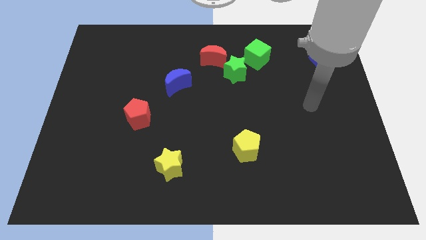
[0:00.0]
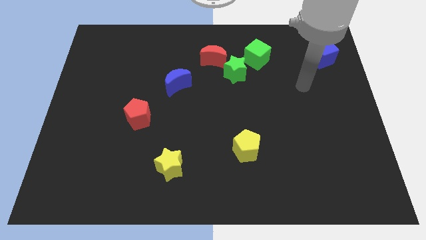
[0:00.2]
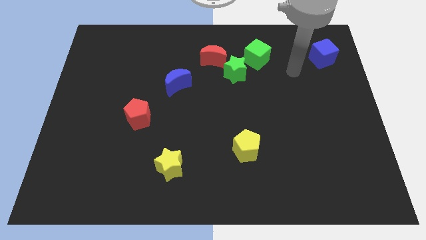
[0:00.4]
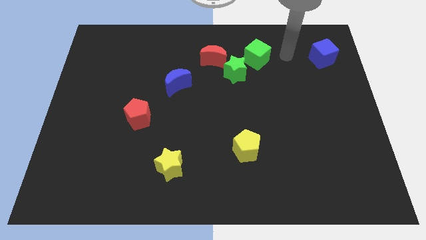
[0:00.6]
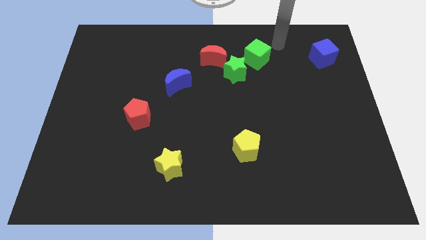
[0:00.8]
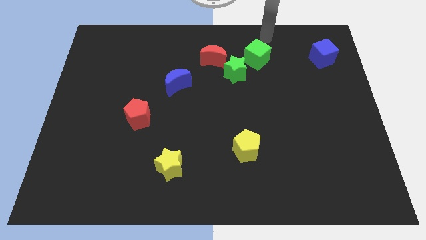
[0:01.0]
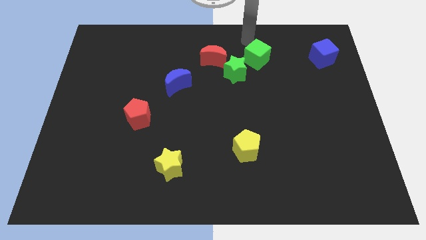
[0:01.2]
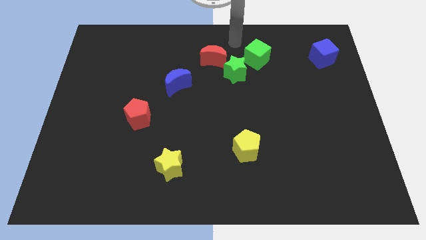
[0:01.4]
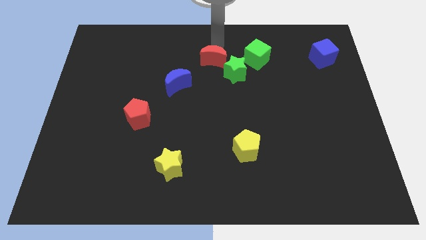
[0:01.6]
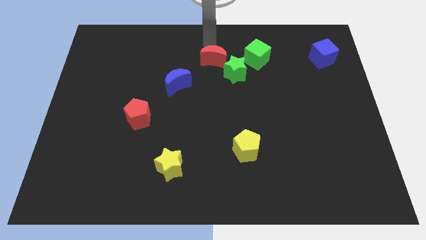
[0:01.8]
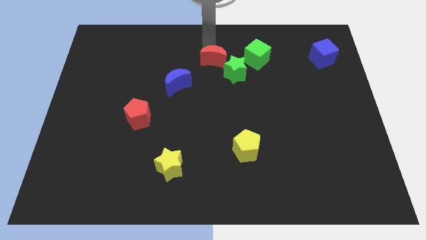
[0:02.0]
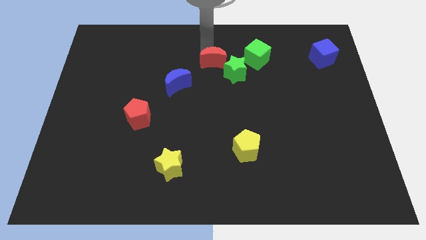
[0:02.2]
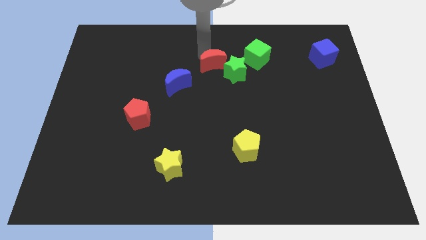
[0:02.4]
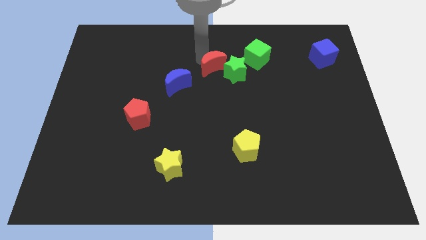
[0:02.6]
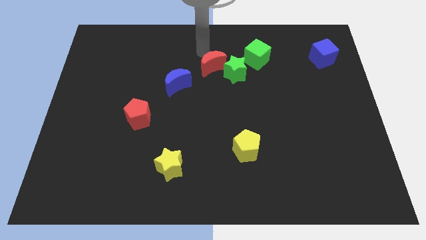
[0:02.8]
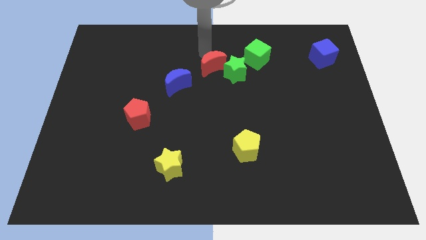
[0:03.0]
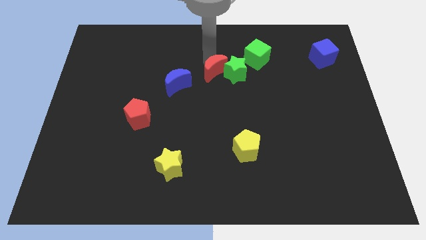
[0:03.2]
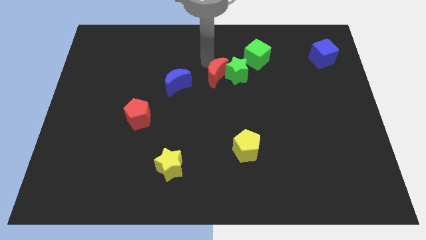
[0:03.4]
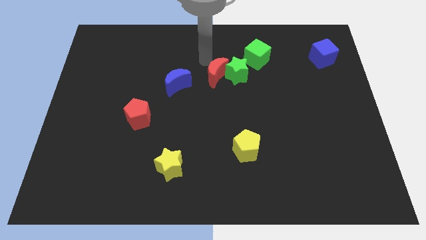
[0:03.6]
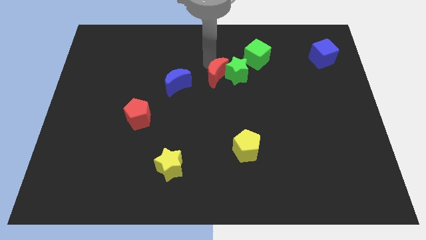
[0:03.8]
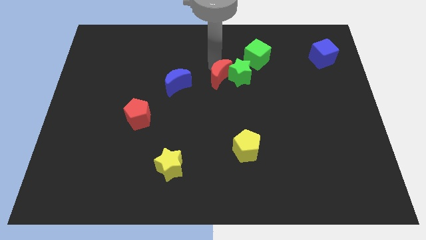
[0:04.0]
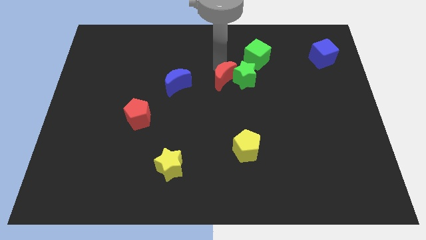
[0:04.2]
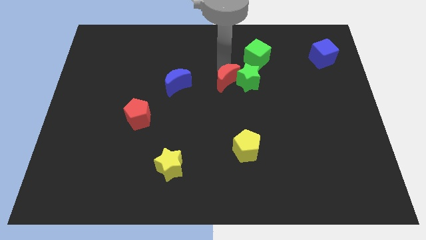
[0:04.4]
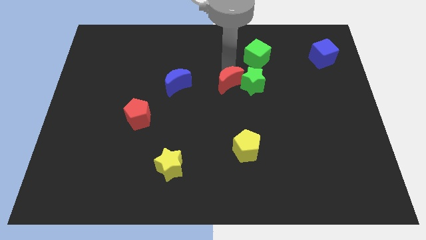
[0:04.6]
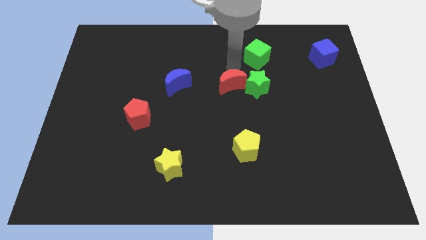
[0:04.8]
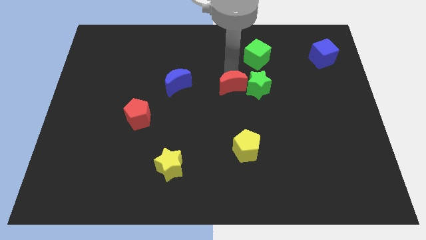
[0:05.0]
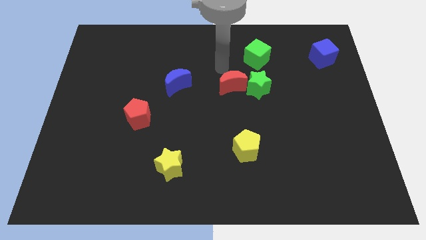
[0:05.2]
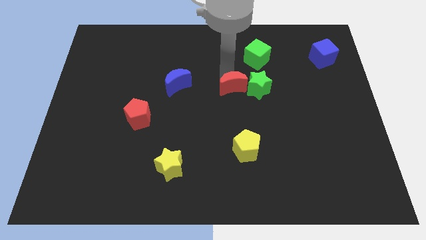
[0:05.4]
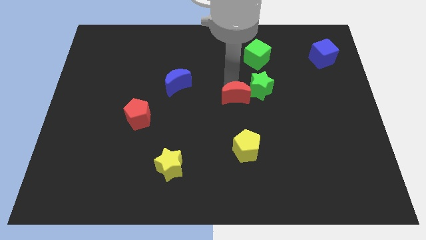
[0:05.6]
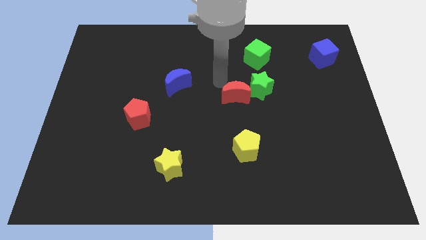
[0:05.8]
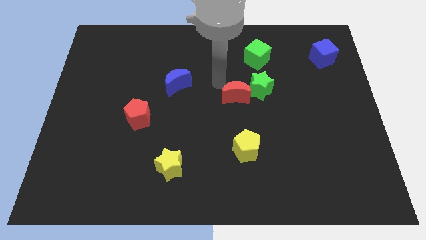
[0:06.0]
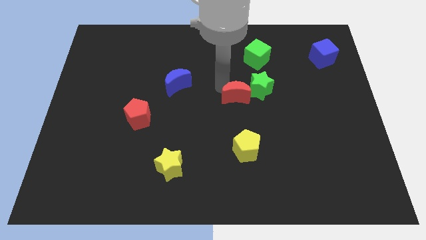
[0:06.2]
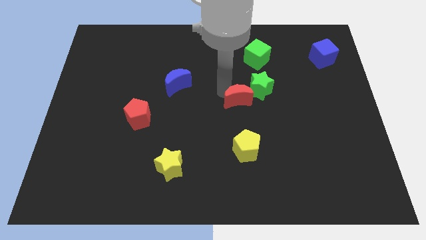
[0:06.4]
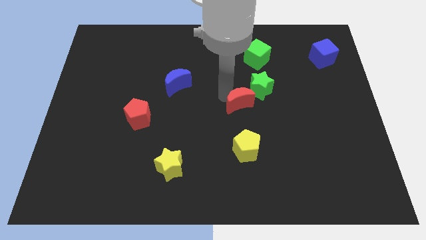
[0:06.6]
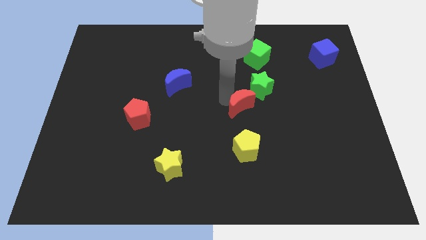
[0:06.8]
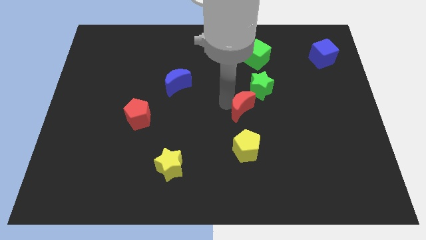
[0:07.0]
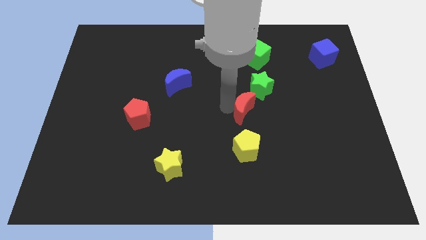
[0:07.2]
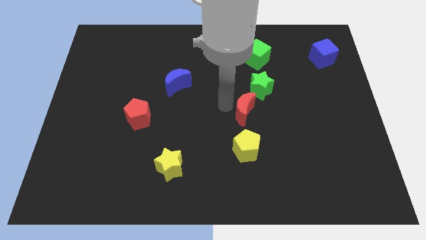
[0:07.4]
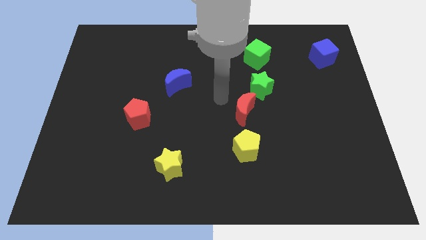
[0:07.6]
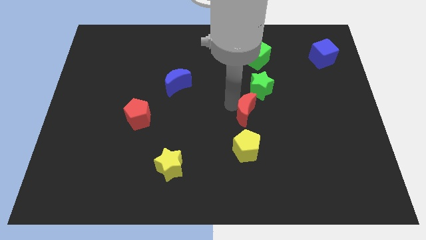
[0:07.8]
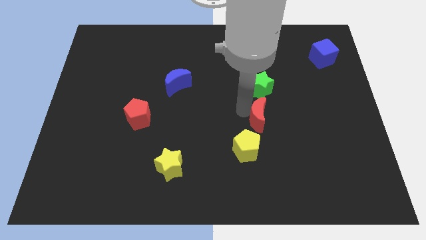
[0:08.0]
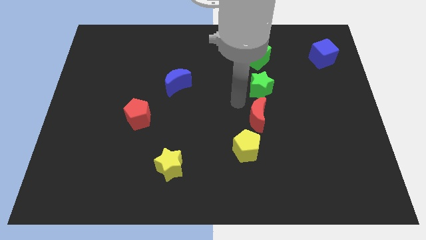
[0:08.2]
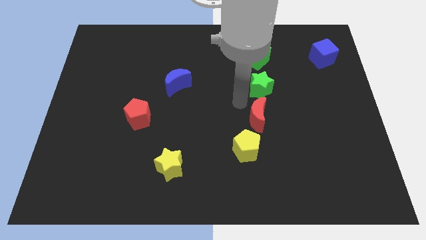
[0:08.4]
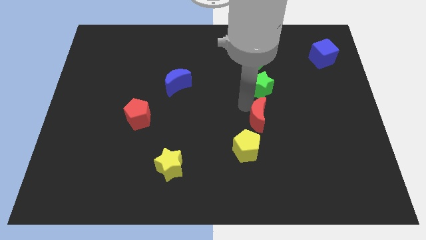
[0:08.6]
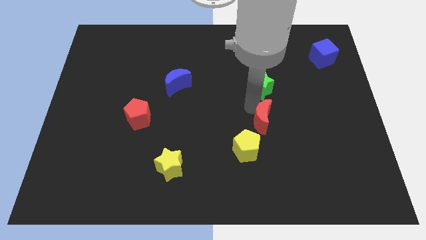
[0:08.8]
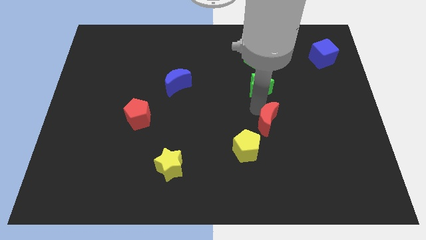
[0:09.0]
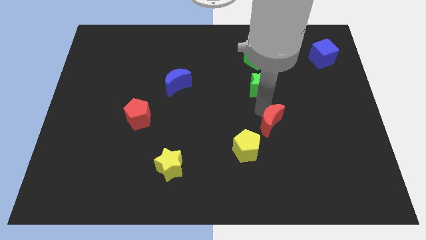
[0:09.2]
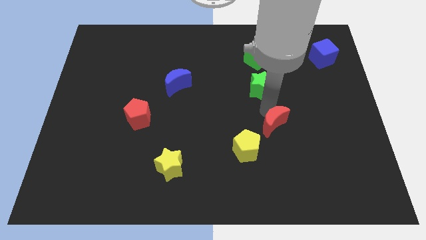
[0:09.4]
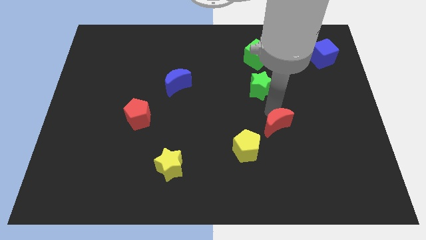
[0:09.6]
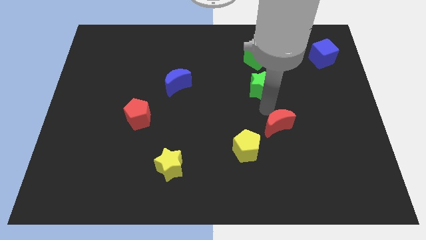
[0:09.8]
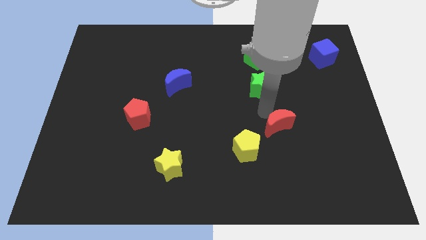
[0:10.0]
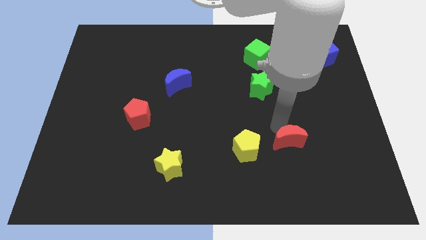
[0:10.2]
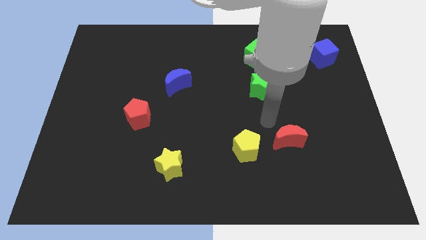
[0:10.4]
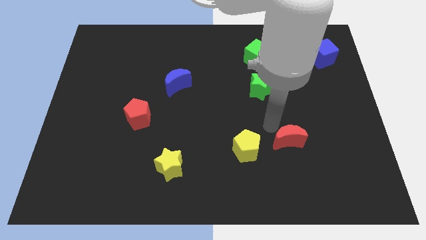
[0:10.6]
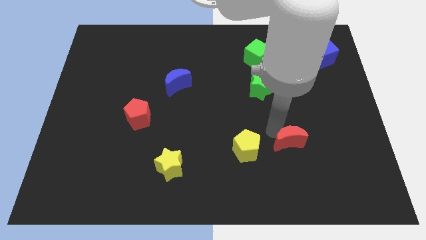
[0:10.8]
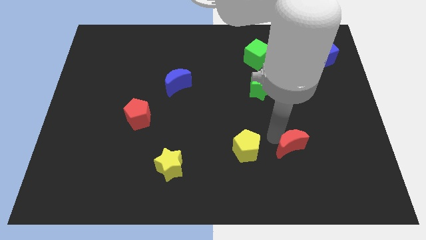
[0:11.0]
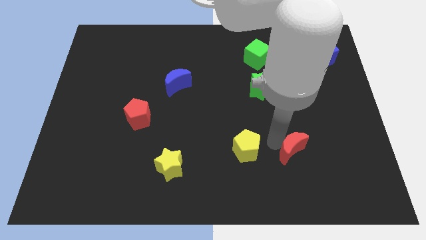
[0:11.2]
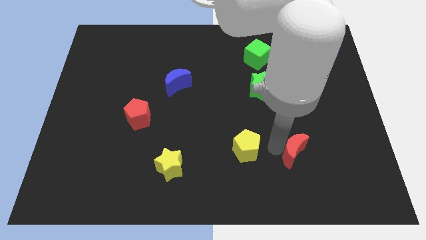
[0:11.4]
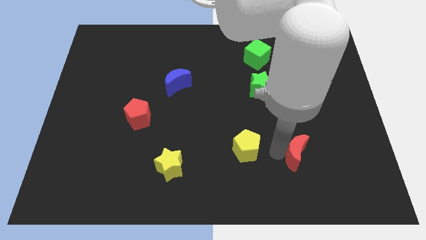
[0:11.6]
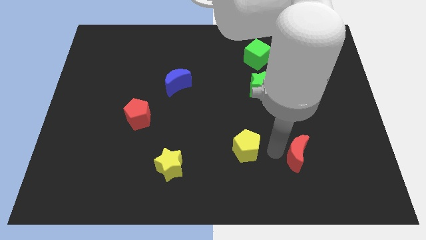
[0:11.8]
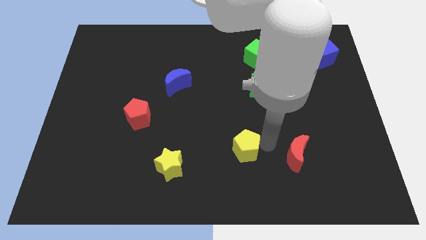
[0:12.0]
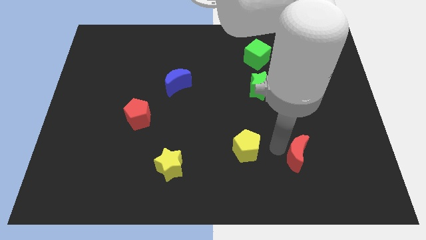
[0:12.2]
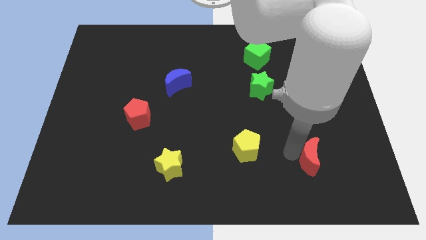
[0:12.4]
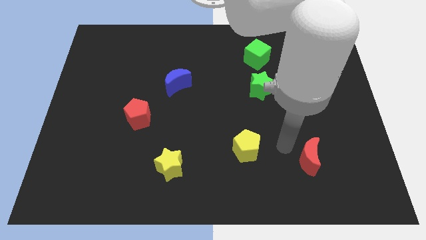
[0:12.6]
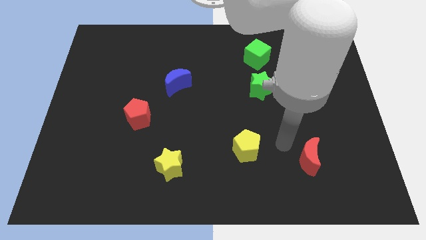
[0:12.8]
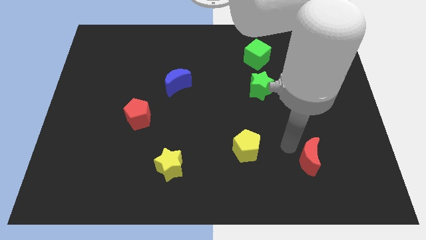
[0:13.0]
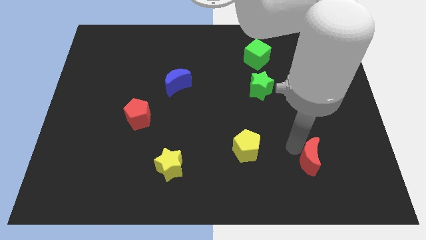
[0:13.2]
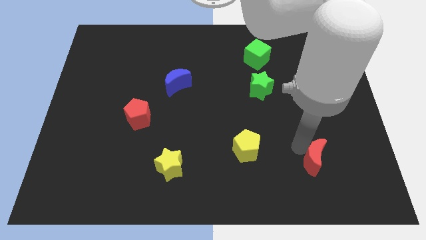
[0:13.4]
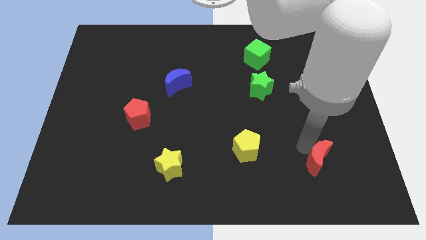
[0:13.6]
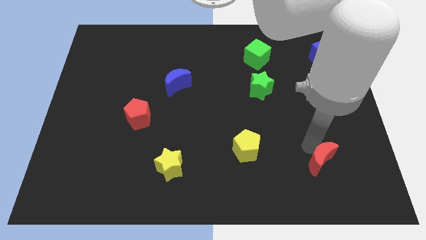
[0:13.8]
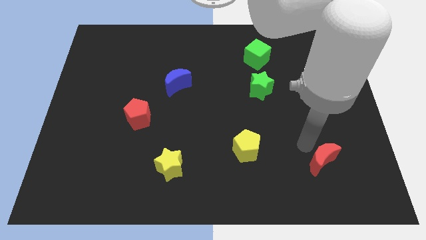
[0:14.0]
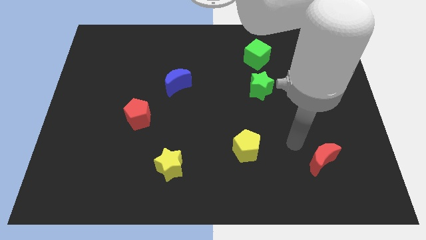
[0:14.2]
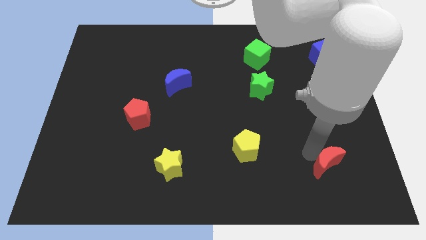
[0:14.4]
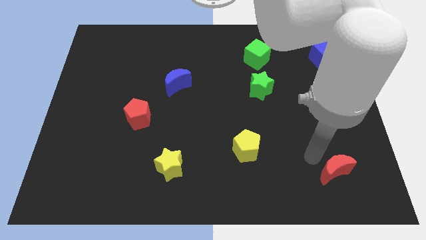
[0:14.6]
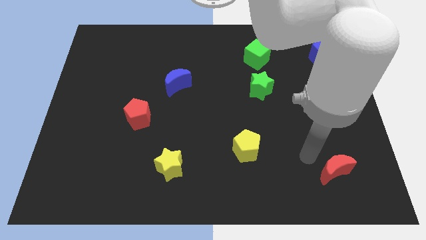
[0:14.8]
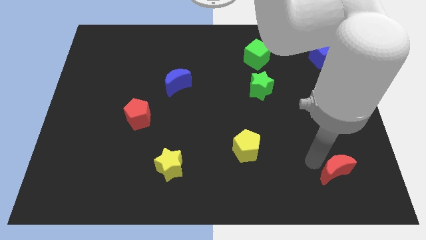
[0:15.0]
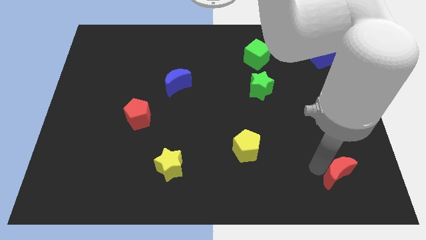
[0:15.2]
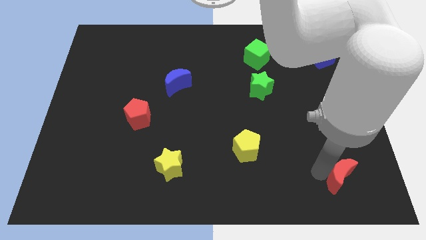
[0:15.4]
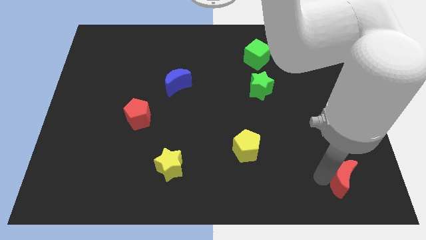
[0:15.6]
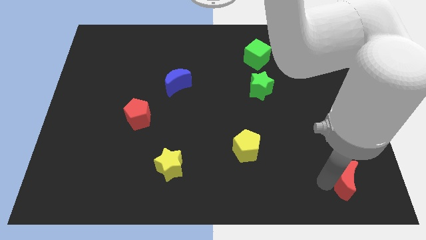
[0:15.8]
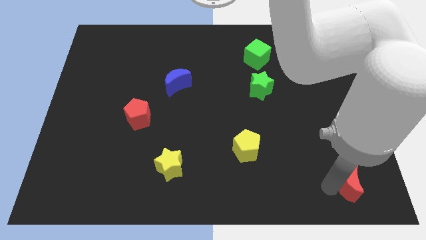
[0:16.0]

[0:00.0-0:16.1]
move the red moon to the bottom right

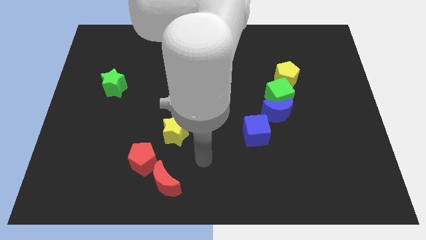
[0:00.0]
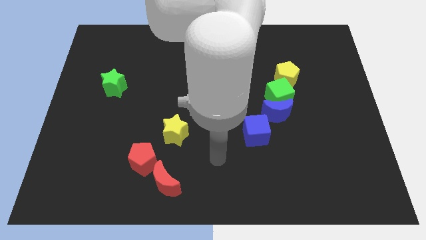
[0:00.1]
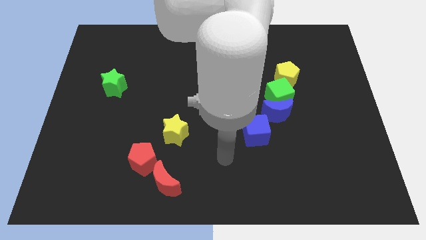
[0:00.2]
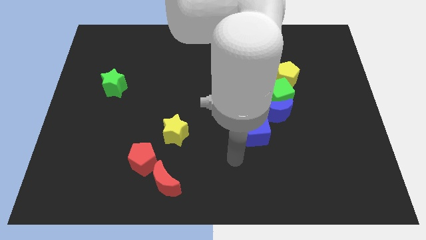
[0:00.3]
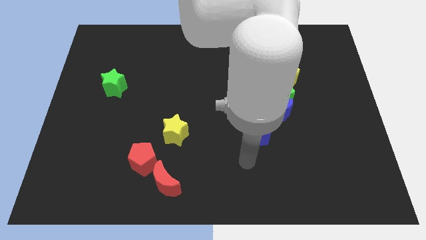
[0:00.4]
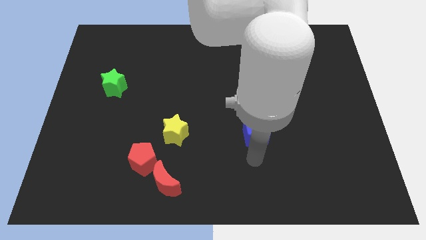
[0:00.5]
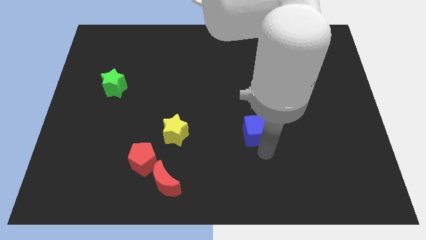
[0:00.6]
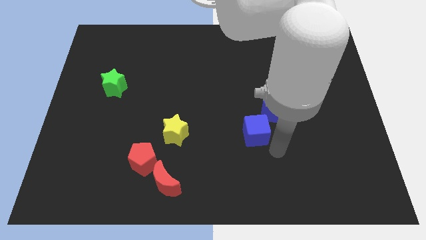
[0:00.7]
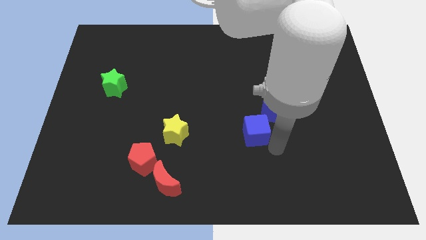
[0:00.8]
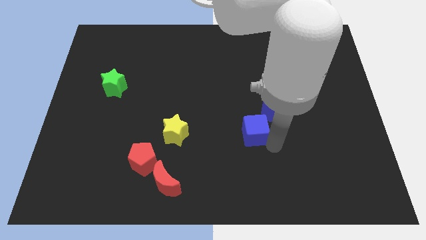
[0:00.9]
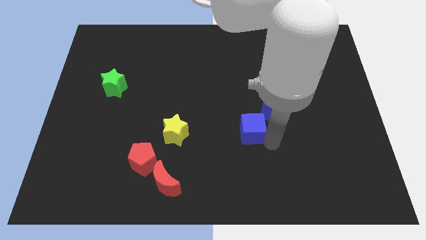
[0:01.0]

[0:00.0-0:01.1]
move the blue cube to the middle of the board
